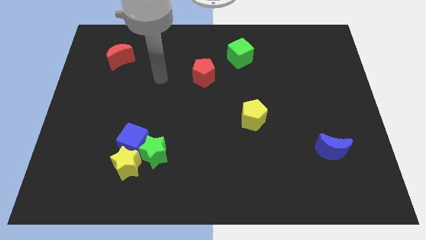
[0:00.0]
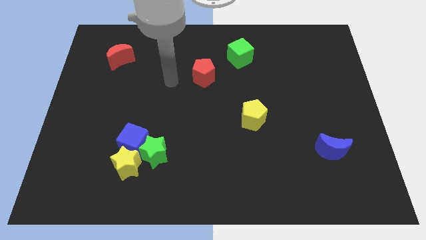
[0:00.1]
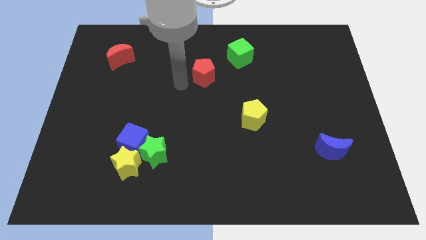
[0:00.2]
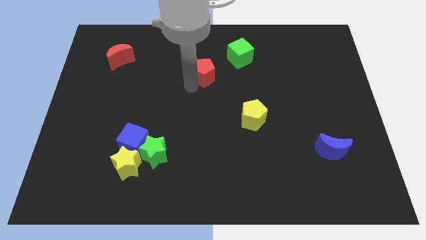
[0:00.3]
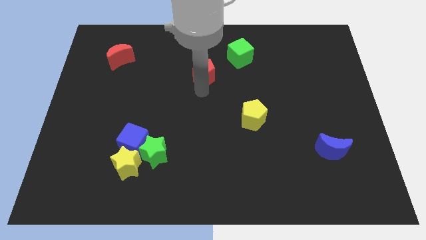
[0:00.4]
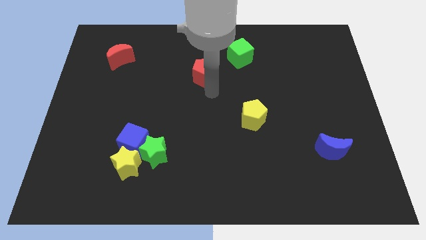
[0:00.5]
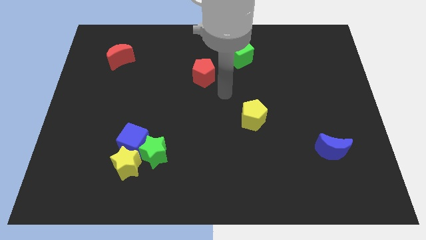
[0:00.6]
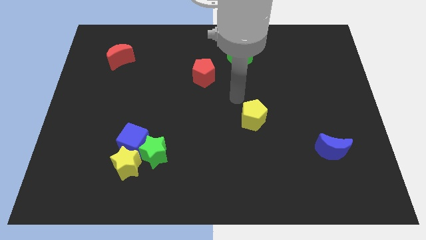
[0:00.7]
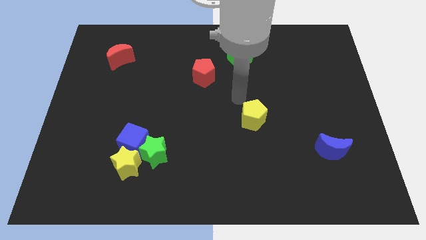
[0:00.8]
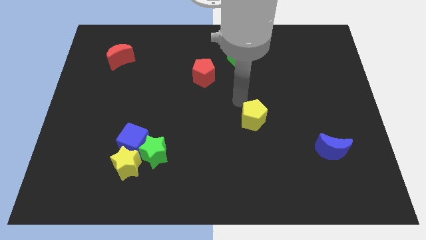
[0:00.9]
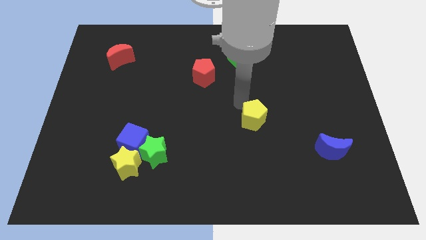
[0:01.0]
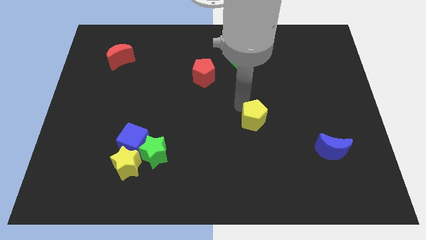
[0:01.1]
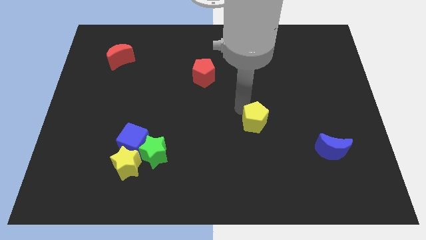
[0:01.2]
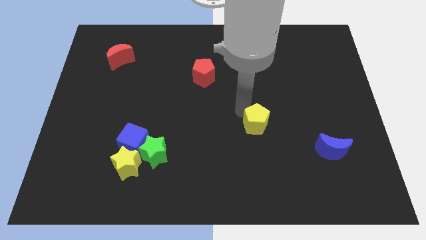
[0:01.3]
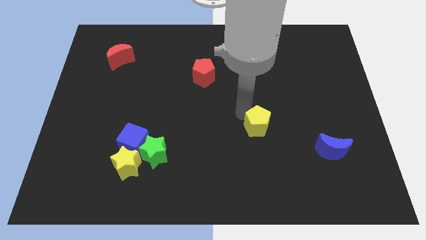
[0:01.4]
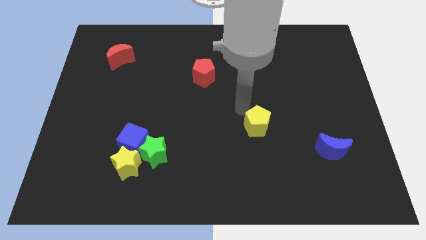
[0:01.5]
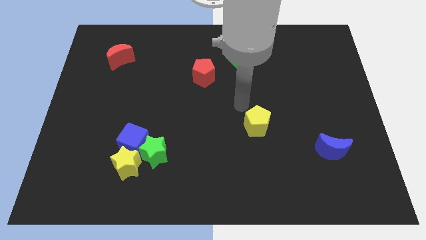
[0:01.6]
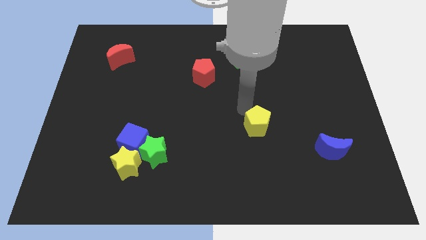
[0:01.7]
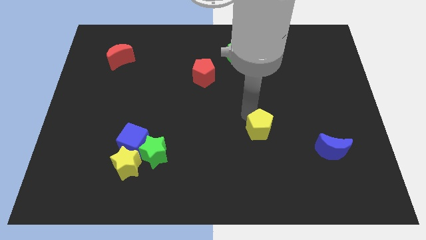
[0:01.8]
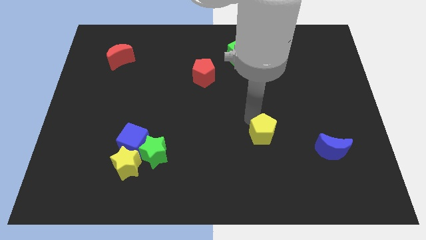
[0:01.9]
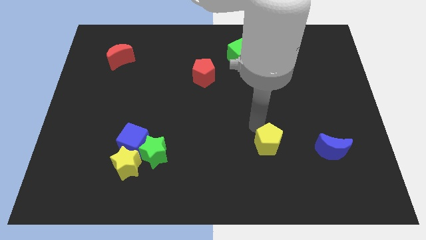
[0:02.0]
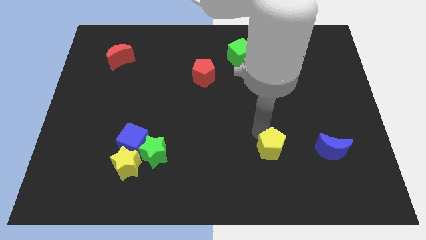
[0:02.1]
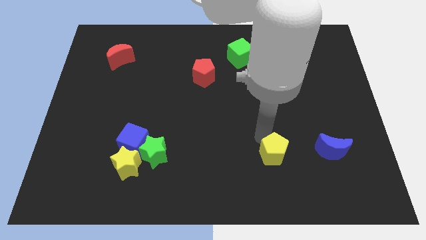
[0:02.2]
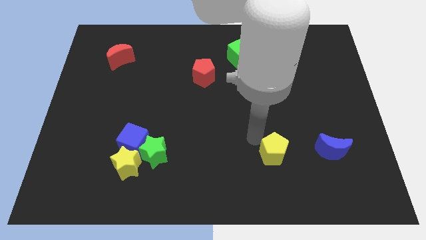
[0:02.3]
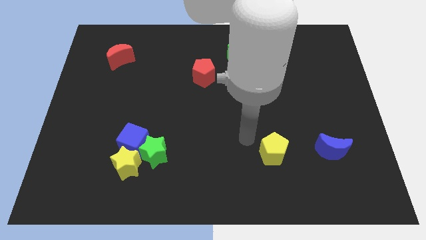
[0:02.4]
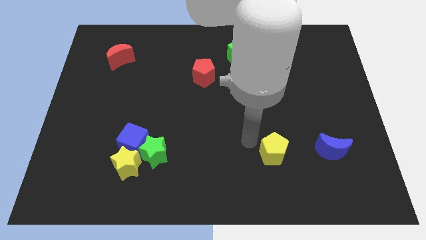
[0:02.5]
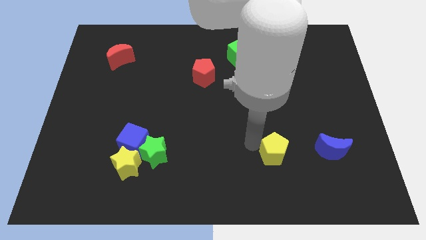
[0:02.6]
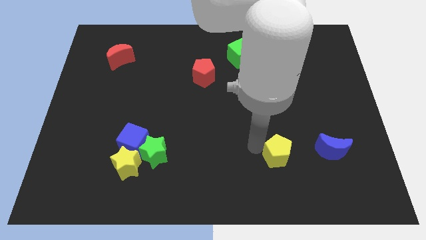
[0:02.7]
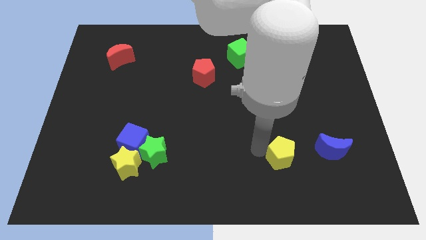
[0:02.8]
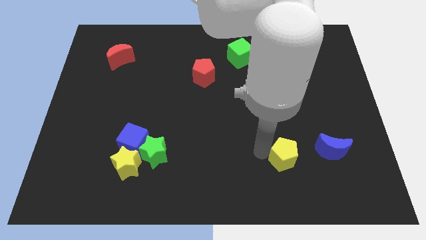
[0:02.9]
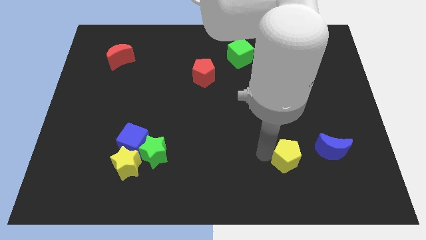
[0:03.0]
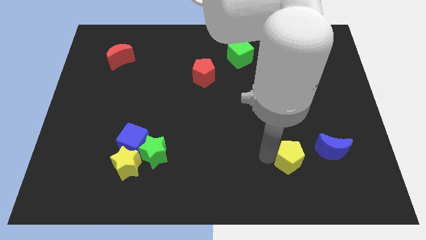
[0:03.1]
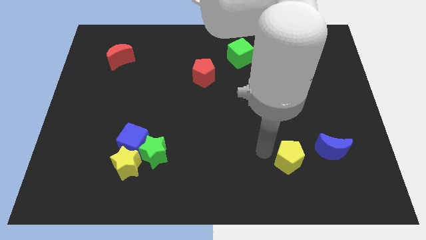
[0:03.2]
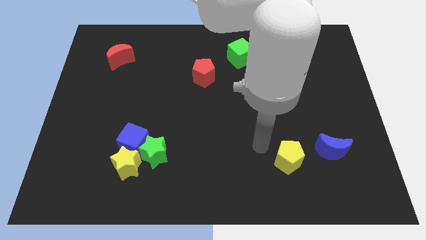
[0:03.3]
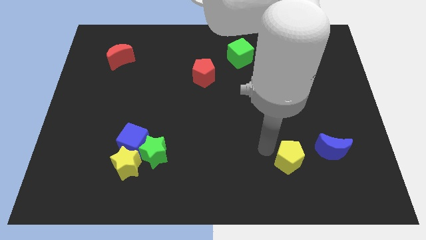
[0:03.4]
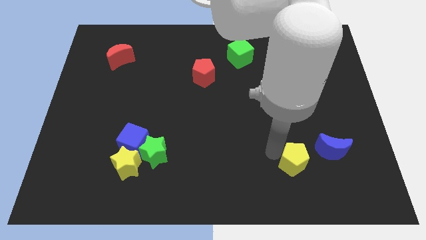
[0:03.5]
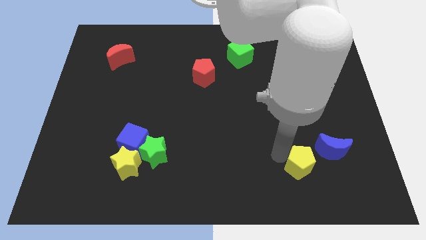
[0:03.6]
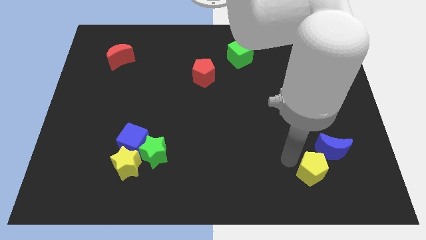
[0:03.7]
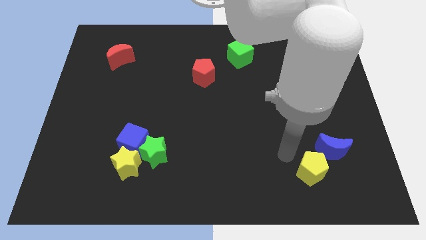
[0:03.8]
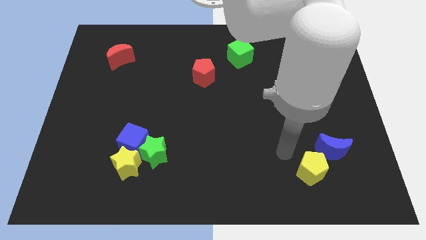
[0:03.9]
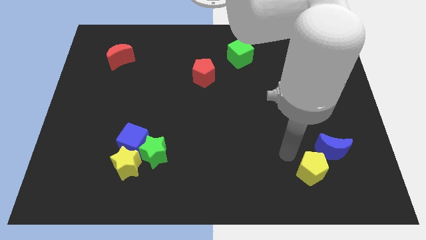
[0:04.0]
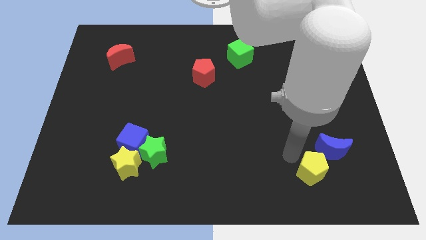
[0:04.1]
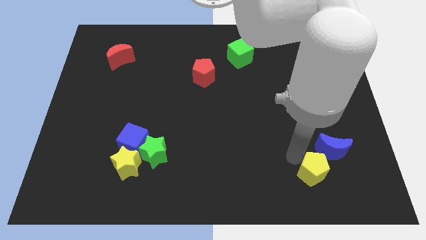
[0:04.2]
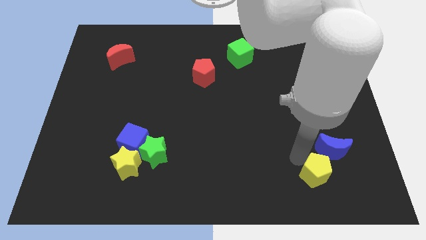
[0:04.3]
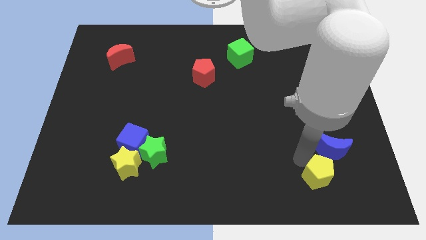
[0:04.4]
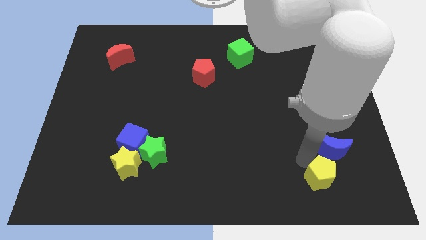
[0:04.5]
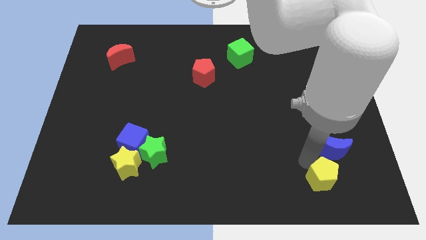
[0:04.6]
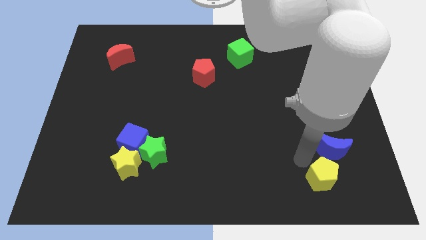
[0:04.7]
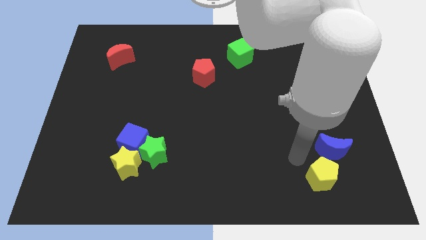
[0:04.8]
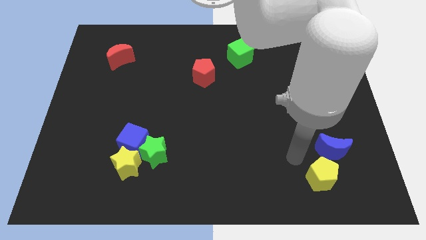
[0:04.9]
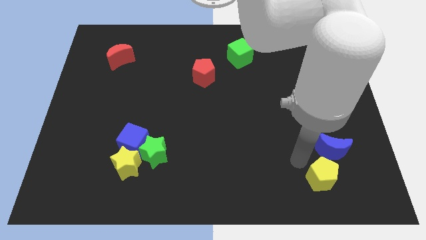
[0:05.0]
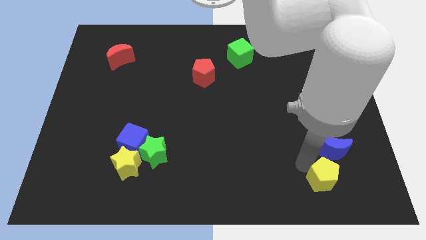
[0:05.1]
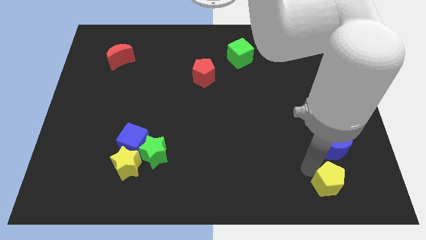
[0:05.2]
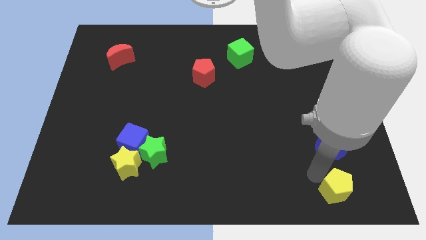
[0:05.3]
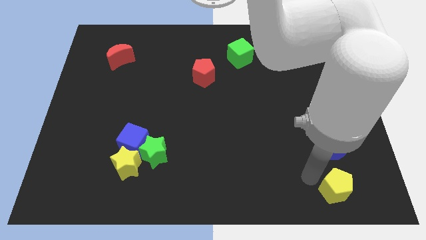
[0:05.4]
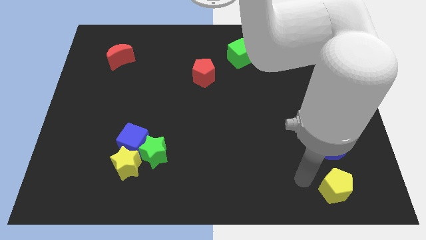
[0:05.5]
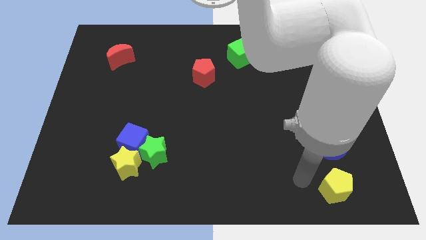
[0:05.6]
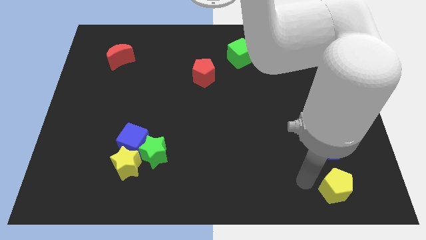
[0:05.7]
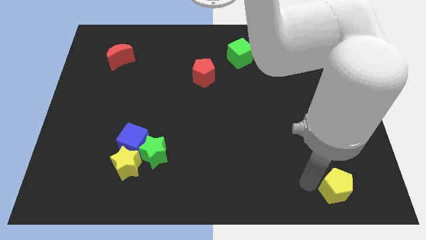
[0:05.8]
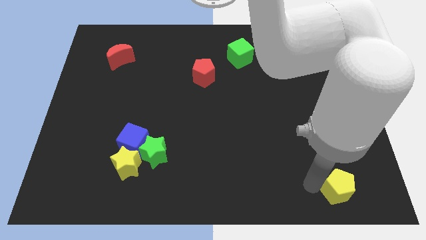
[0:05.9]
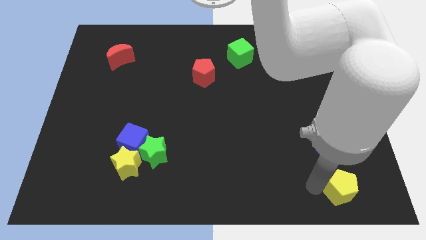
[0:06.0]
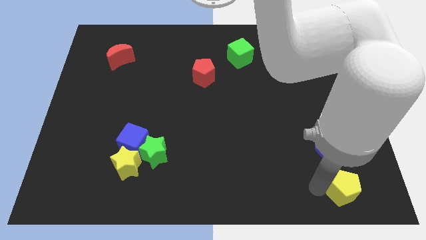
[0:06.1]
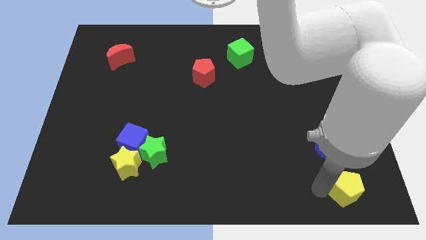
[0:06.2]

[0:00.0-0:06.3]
put the yellow pentagon to the bottom right corner
